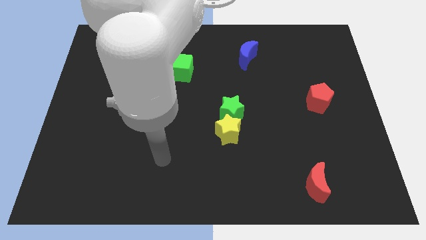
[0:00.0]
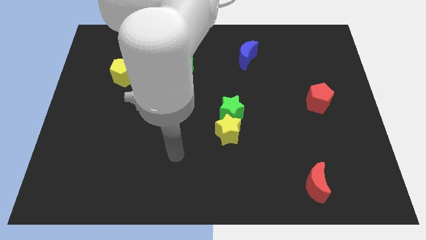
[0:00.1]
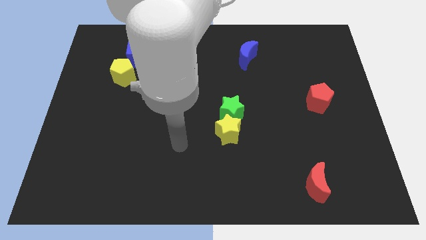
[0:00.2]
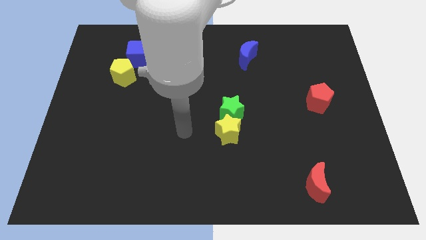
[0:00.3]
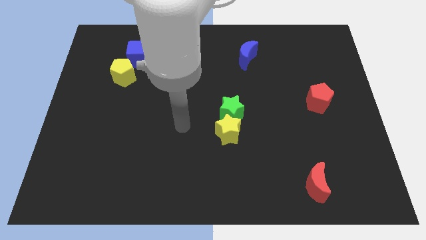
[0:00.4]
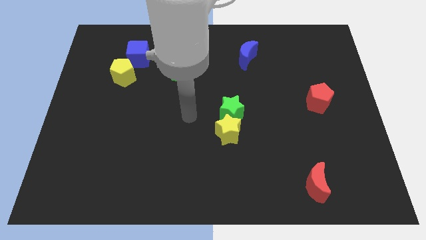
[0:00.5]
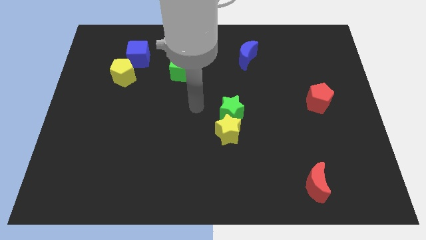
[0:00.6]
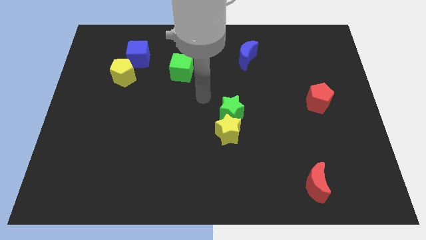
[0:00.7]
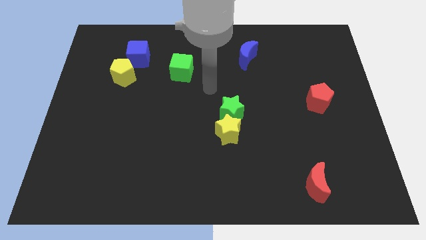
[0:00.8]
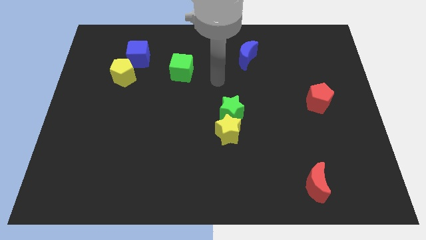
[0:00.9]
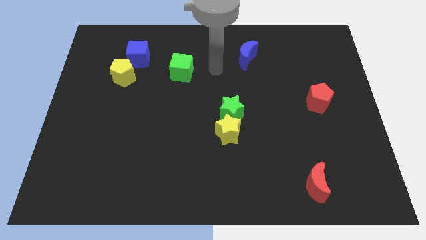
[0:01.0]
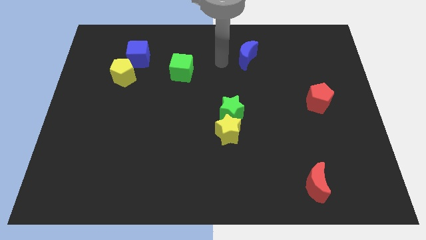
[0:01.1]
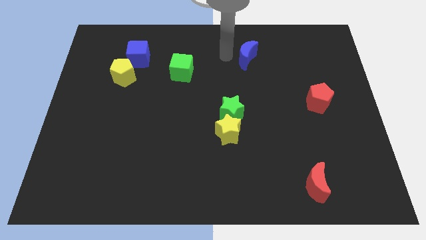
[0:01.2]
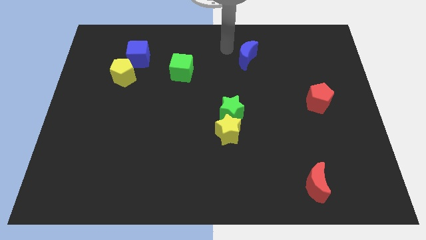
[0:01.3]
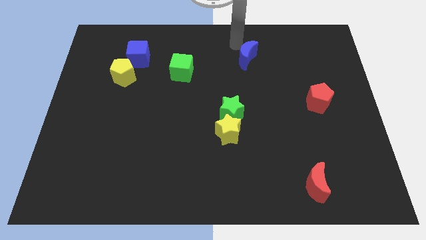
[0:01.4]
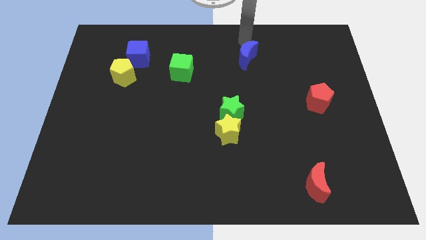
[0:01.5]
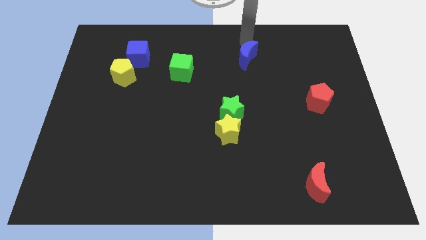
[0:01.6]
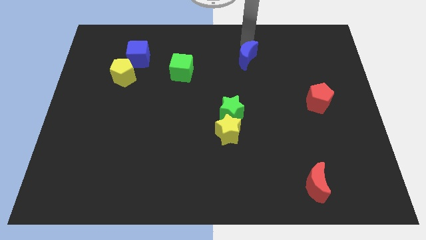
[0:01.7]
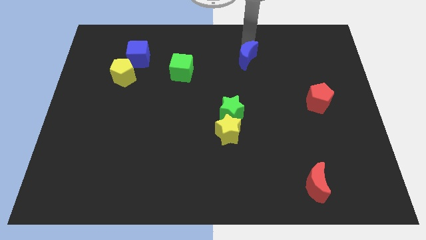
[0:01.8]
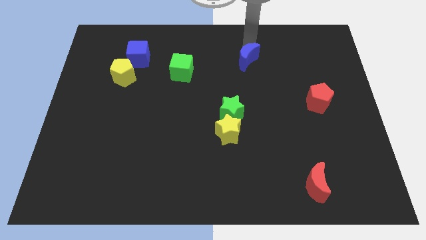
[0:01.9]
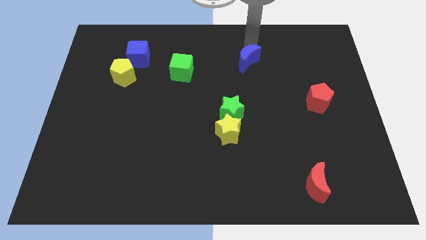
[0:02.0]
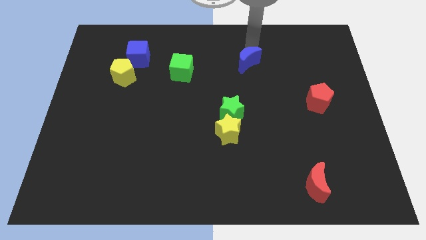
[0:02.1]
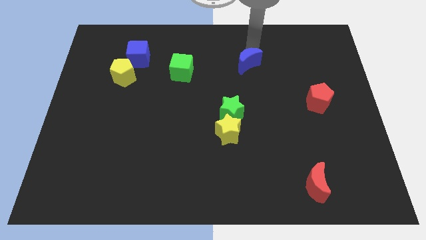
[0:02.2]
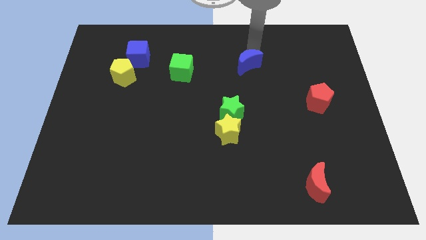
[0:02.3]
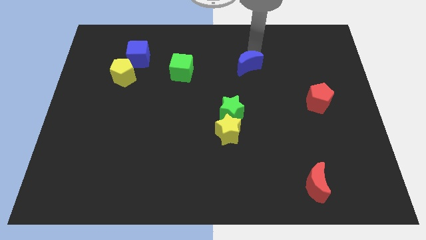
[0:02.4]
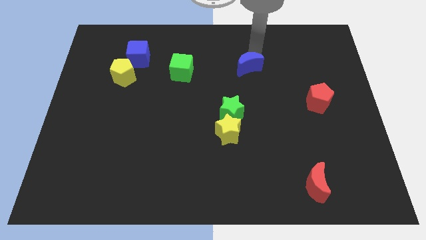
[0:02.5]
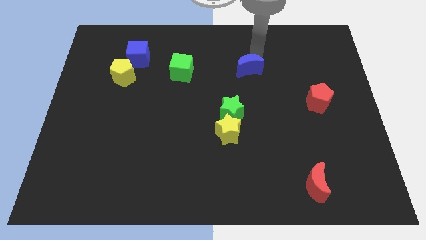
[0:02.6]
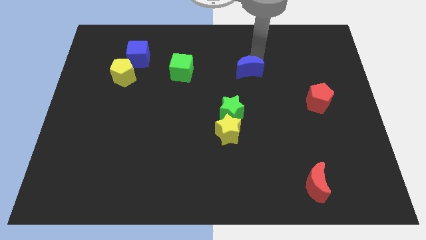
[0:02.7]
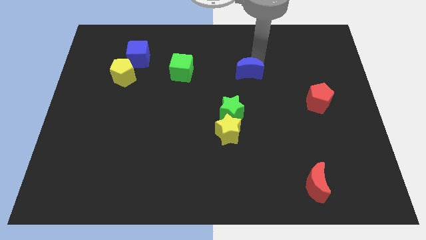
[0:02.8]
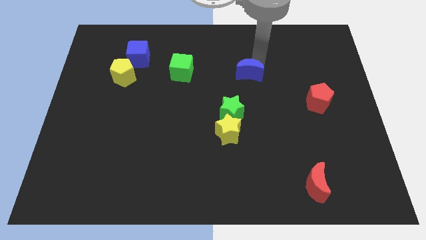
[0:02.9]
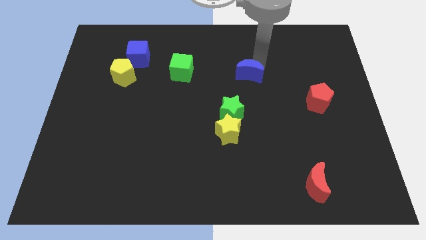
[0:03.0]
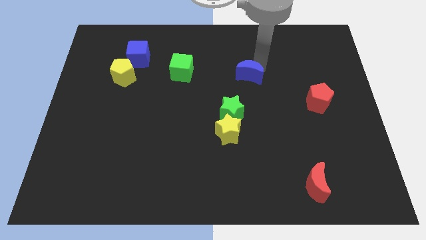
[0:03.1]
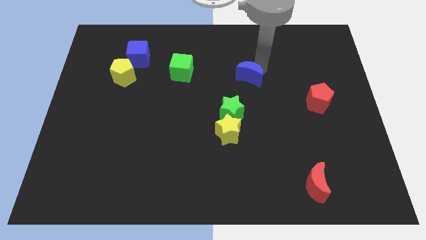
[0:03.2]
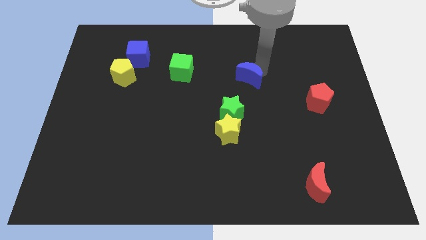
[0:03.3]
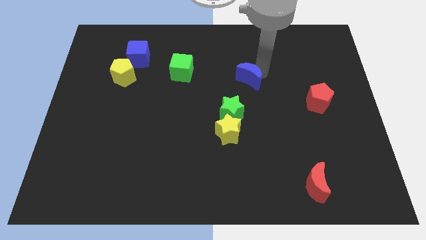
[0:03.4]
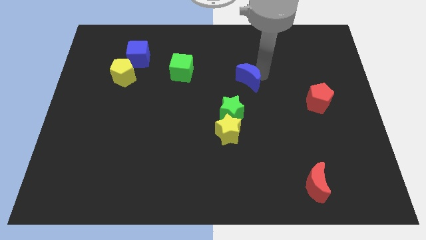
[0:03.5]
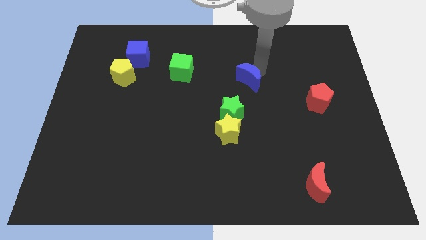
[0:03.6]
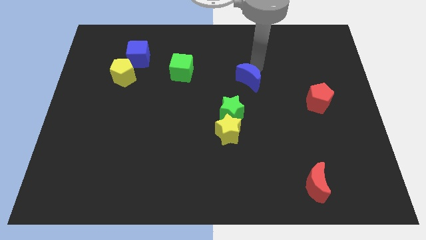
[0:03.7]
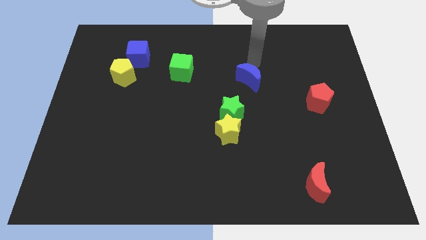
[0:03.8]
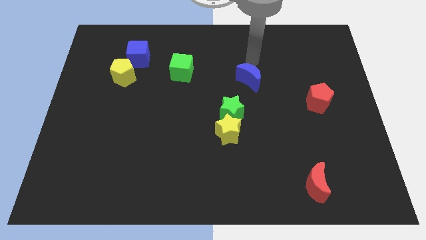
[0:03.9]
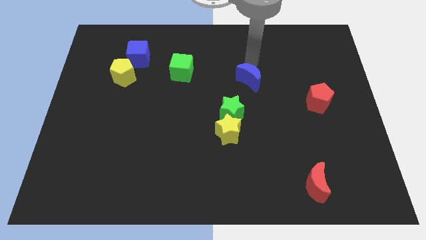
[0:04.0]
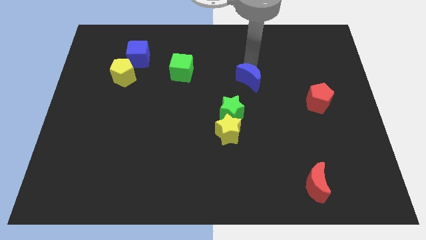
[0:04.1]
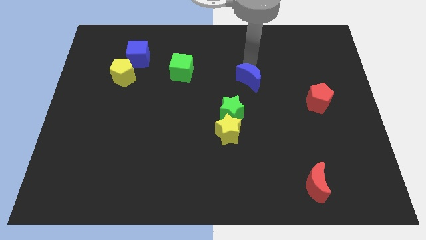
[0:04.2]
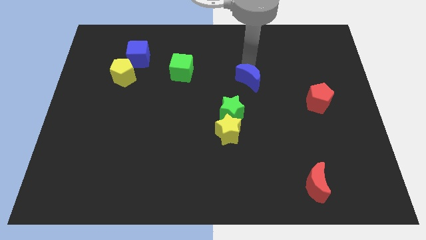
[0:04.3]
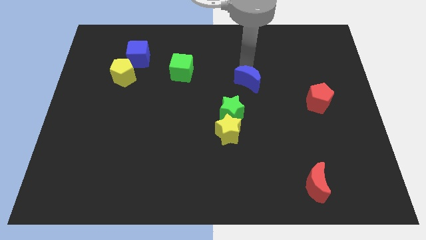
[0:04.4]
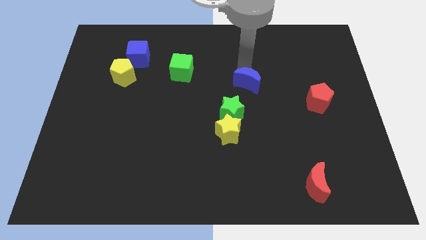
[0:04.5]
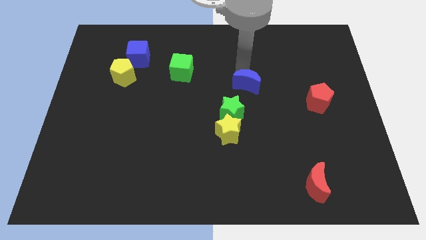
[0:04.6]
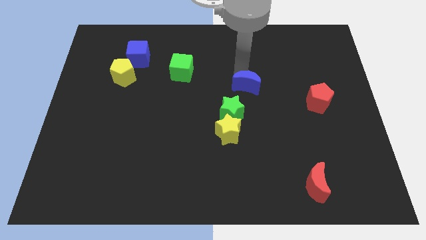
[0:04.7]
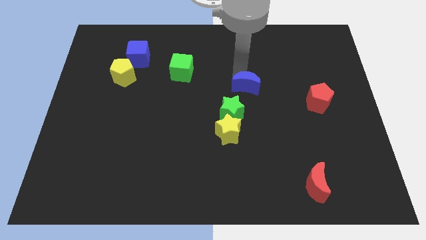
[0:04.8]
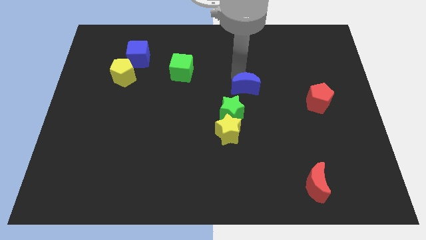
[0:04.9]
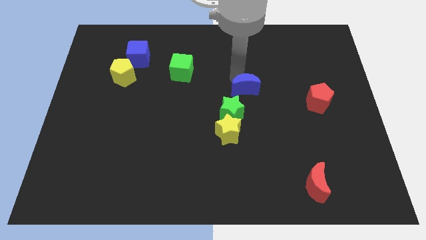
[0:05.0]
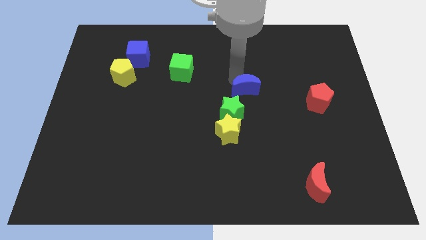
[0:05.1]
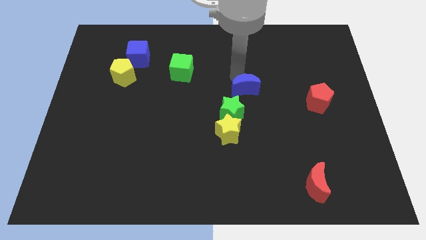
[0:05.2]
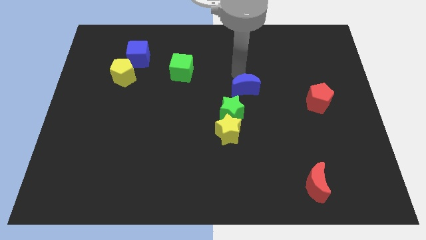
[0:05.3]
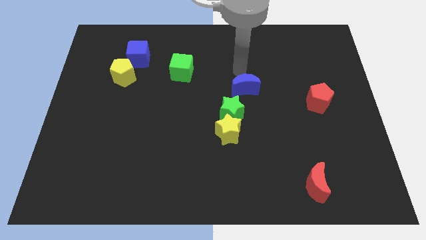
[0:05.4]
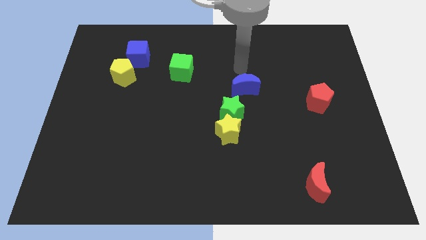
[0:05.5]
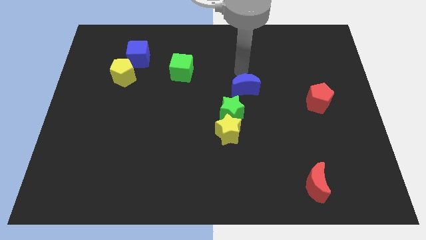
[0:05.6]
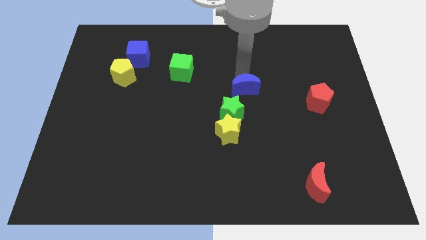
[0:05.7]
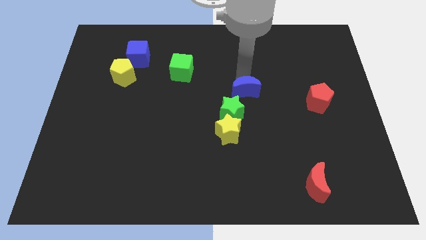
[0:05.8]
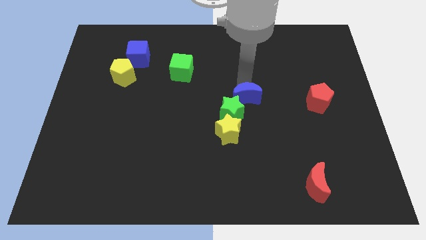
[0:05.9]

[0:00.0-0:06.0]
slide the blue moon to the top right side of the yellow star

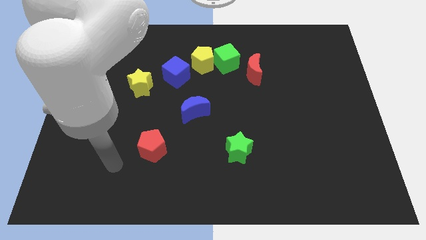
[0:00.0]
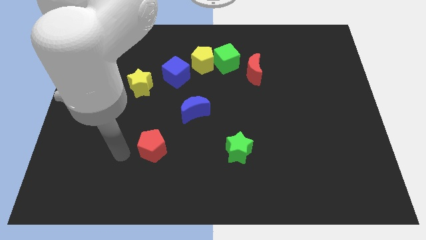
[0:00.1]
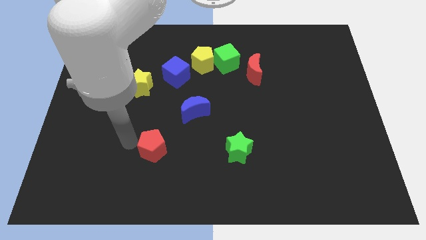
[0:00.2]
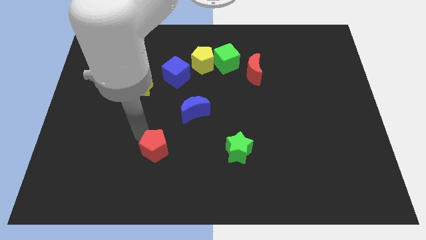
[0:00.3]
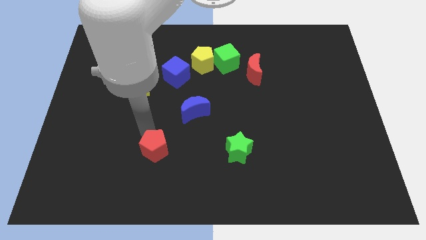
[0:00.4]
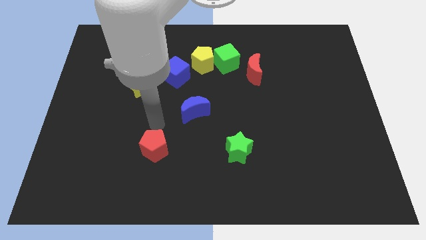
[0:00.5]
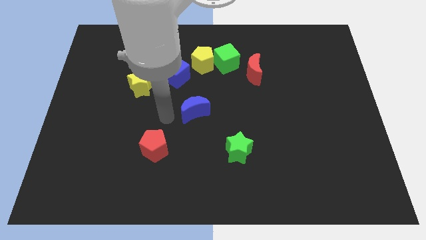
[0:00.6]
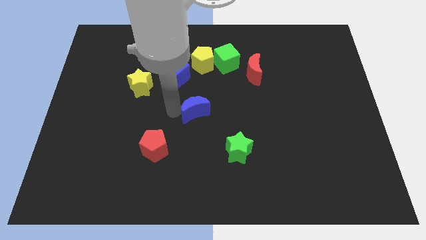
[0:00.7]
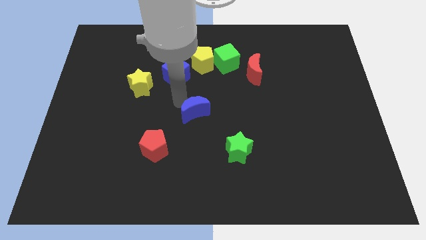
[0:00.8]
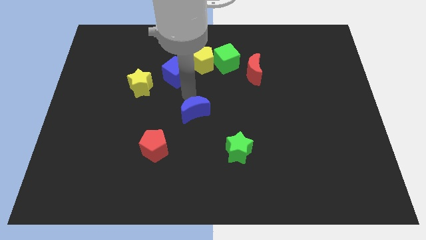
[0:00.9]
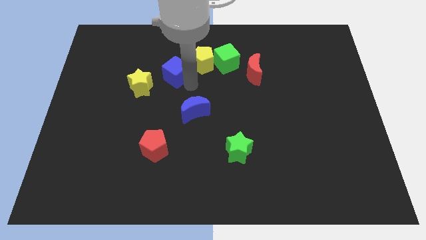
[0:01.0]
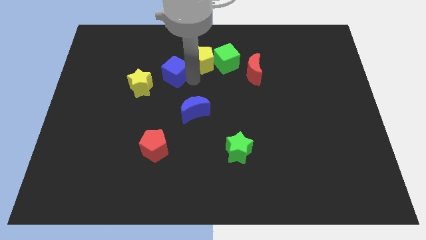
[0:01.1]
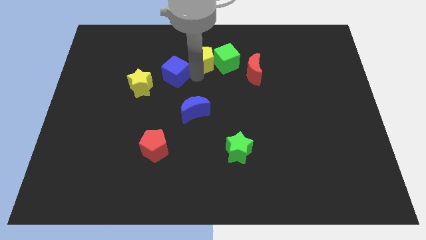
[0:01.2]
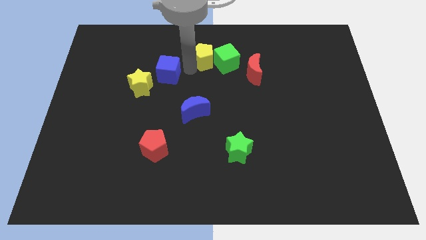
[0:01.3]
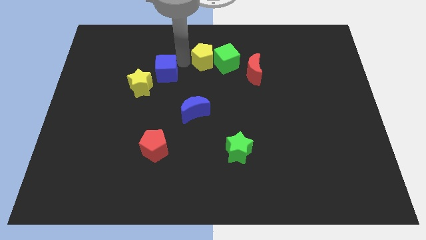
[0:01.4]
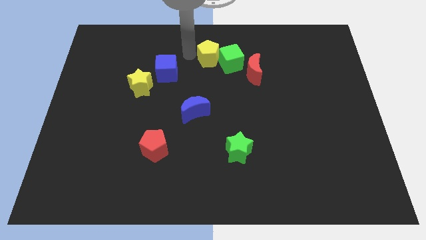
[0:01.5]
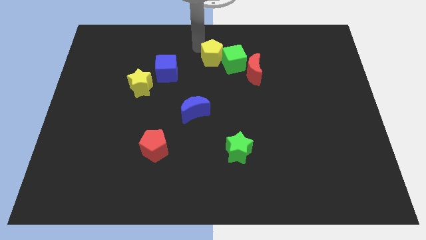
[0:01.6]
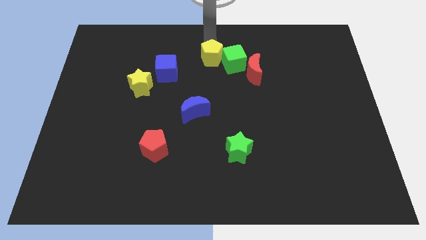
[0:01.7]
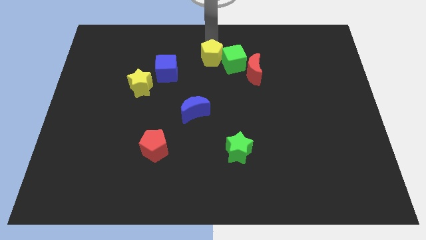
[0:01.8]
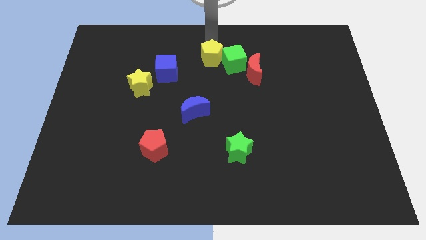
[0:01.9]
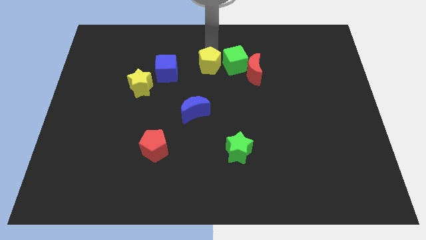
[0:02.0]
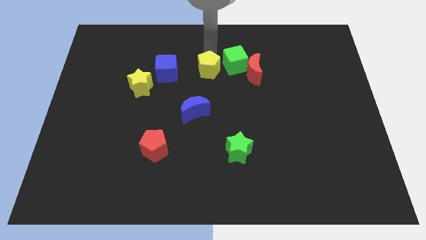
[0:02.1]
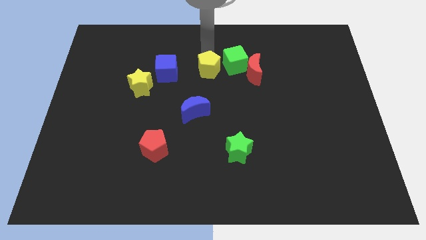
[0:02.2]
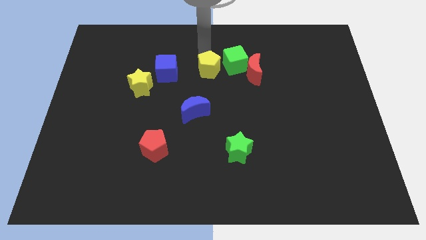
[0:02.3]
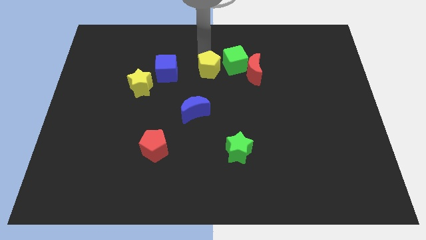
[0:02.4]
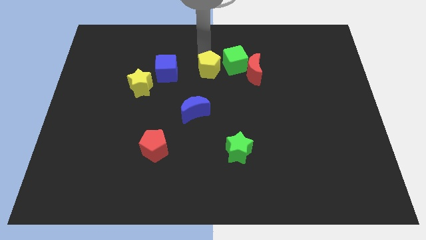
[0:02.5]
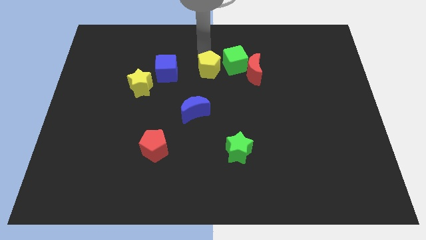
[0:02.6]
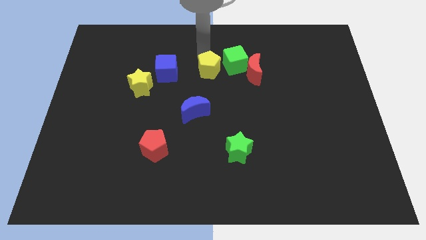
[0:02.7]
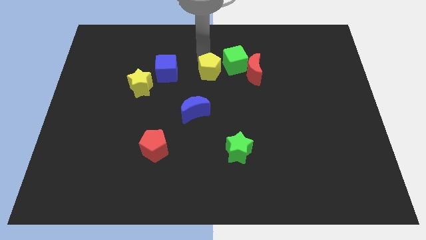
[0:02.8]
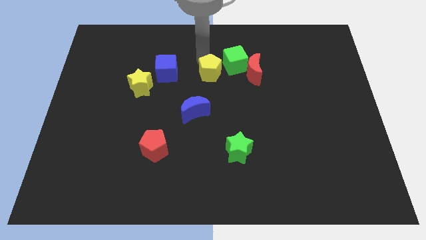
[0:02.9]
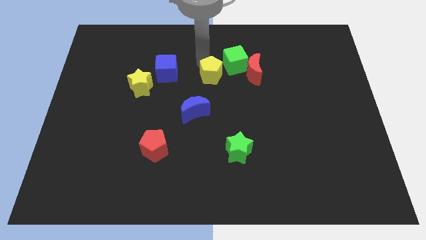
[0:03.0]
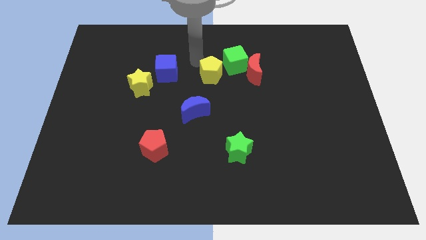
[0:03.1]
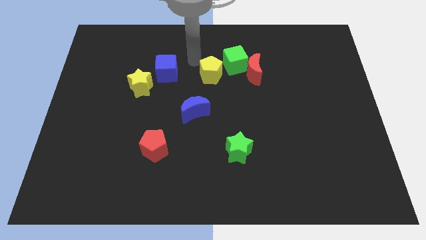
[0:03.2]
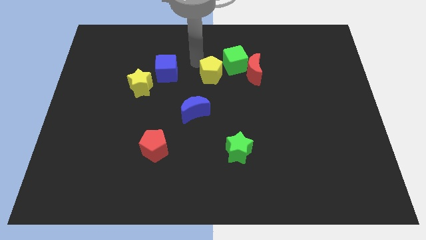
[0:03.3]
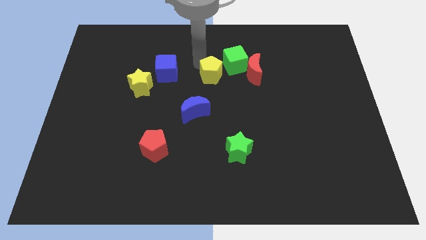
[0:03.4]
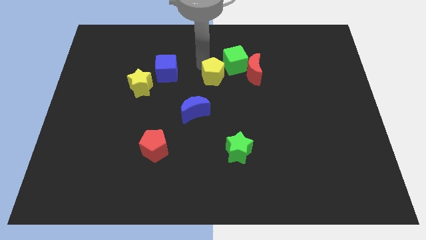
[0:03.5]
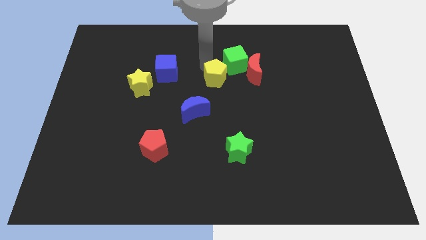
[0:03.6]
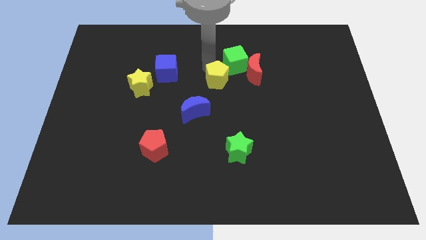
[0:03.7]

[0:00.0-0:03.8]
put the yellow pentagon to the bottom of the green cube
